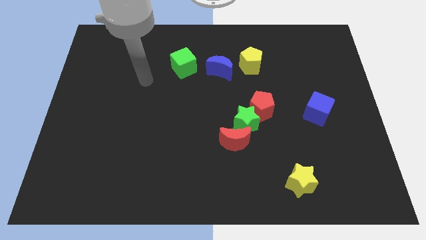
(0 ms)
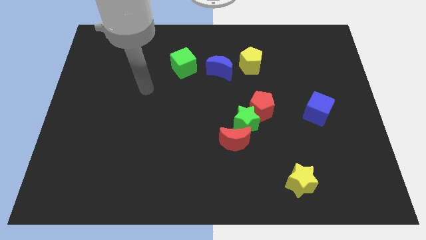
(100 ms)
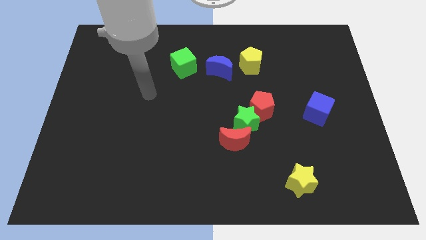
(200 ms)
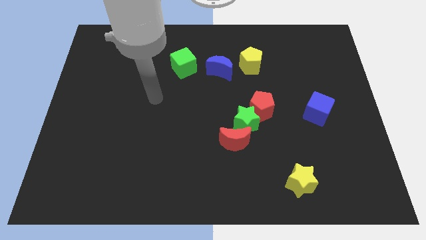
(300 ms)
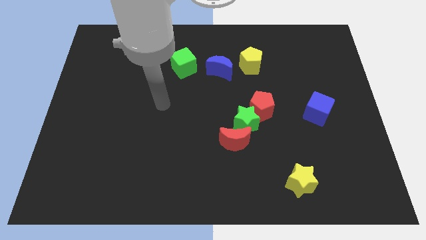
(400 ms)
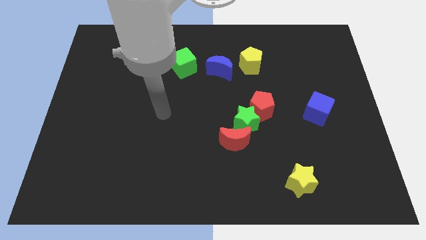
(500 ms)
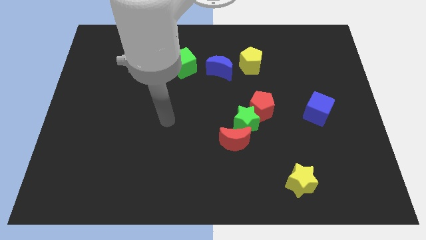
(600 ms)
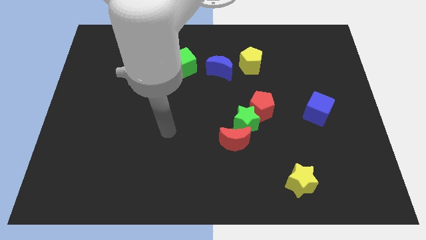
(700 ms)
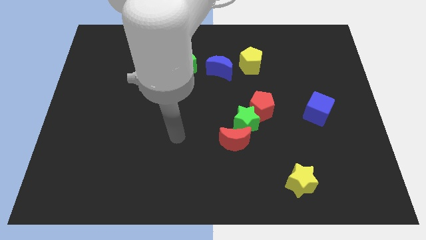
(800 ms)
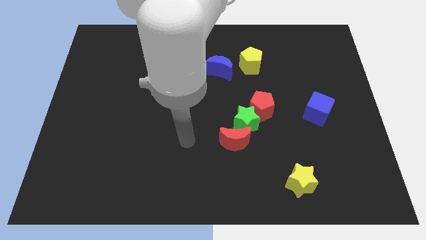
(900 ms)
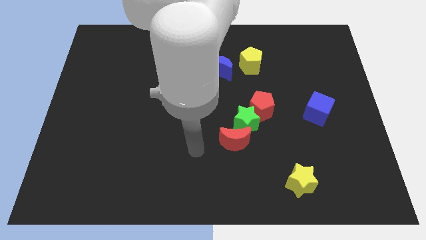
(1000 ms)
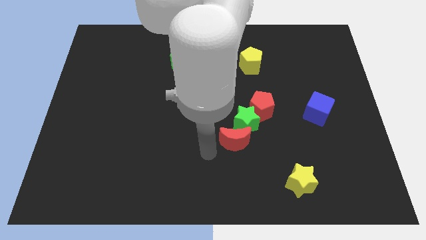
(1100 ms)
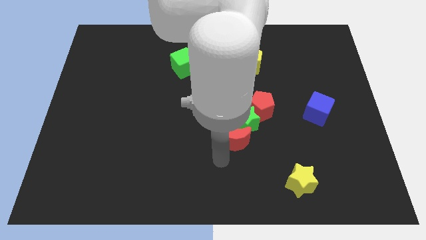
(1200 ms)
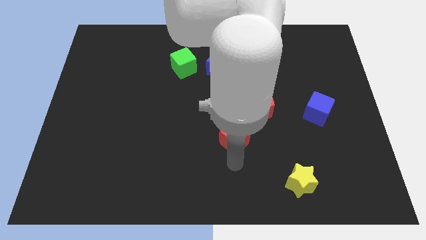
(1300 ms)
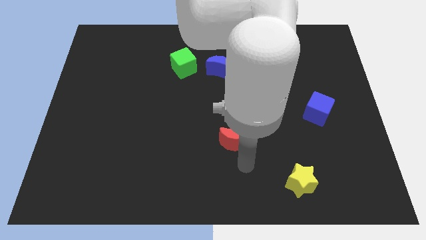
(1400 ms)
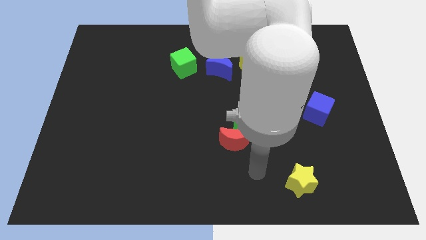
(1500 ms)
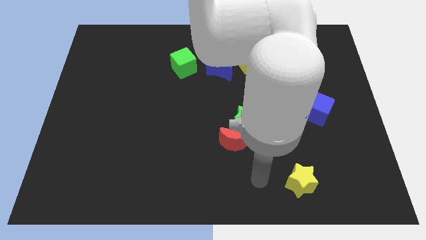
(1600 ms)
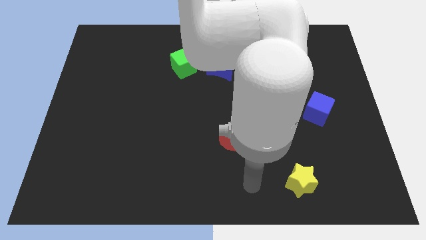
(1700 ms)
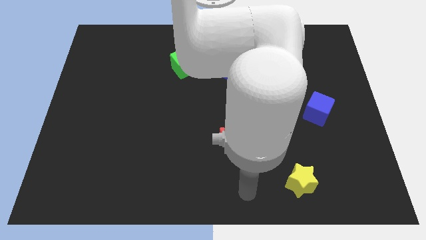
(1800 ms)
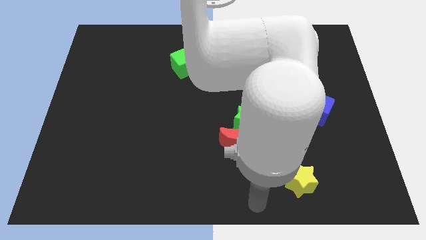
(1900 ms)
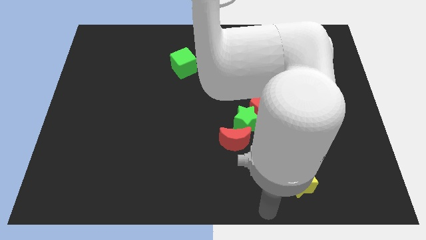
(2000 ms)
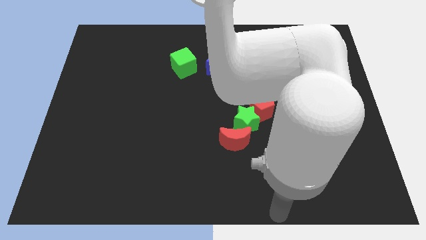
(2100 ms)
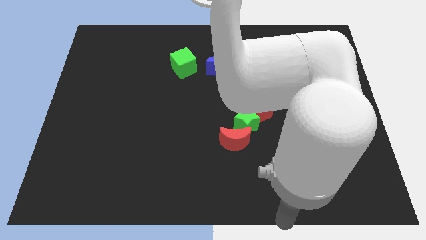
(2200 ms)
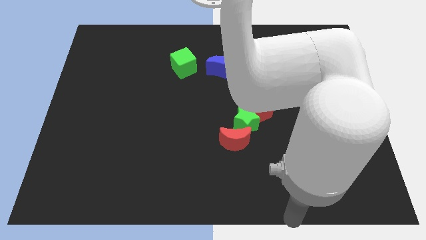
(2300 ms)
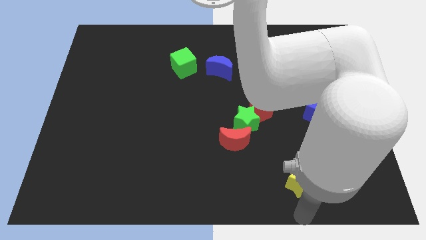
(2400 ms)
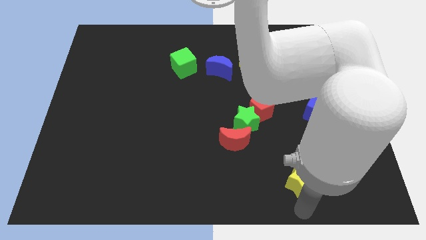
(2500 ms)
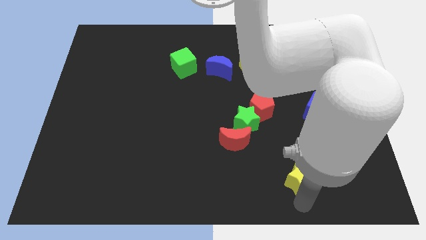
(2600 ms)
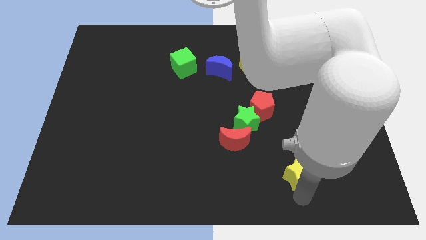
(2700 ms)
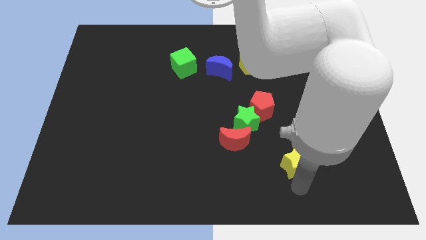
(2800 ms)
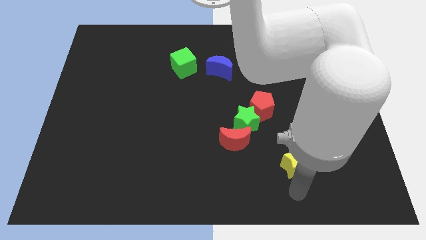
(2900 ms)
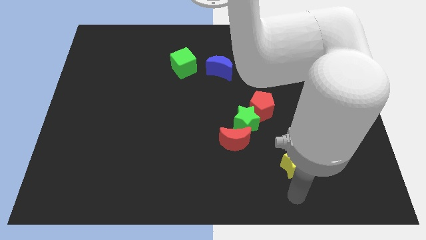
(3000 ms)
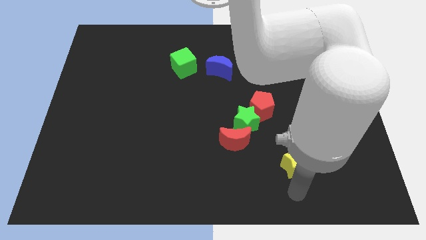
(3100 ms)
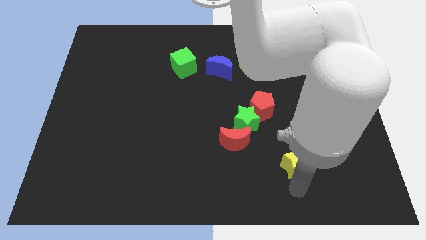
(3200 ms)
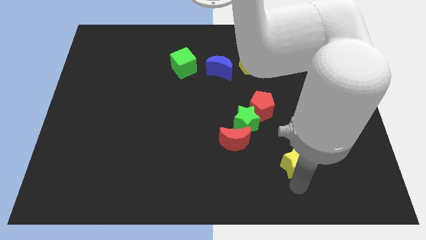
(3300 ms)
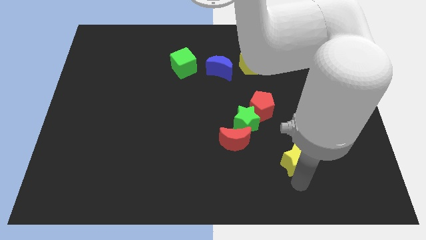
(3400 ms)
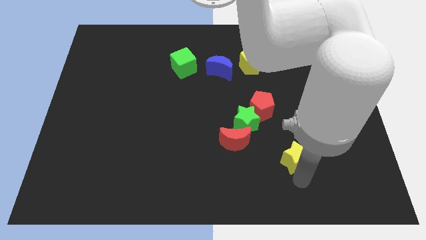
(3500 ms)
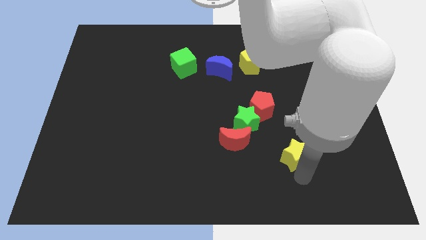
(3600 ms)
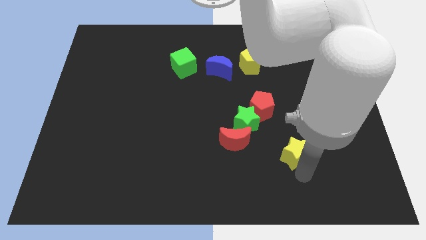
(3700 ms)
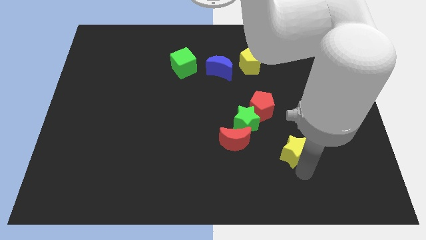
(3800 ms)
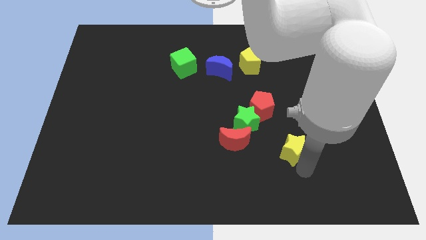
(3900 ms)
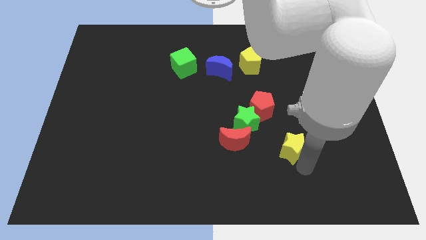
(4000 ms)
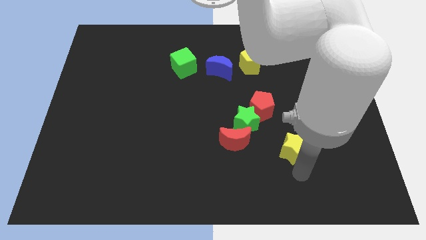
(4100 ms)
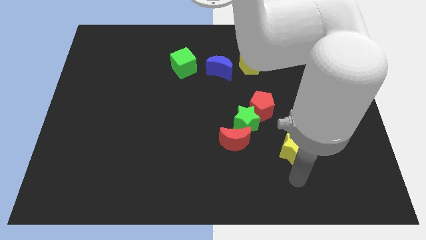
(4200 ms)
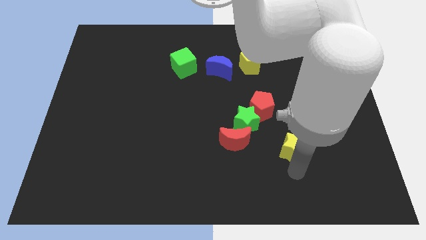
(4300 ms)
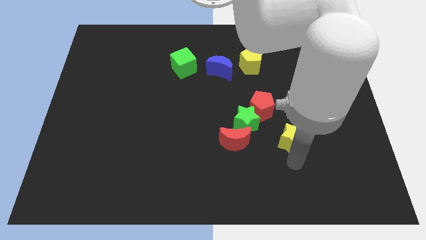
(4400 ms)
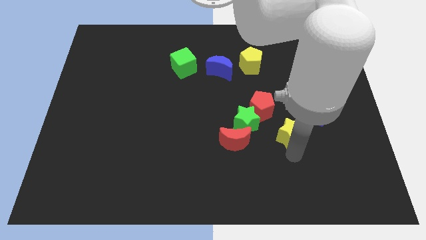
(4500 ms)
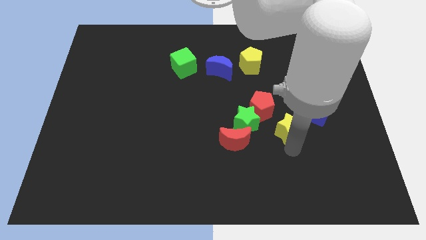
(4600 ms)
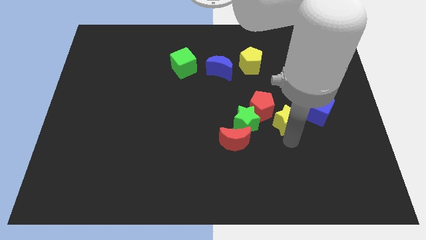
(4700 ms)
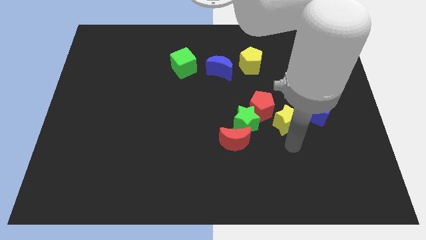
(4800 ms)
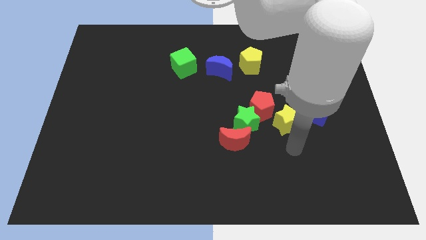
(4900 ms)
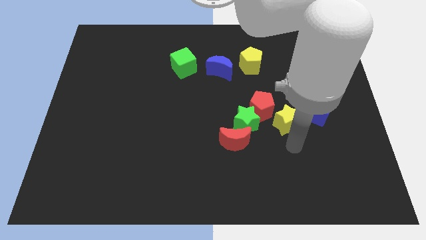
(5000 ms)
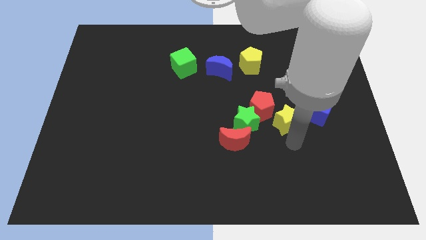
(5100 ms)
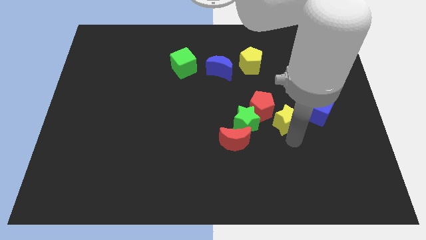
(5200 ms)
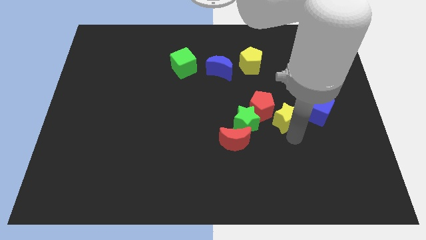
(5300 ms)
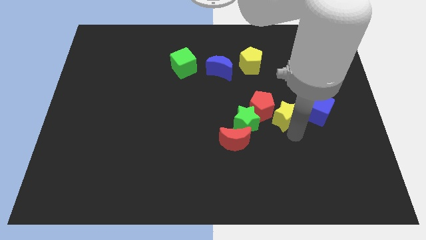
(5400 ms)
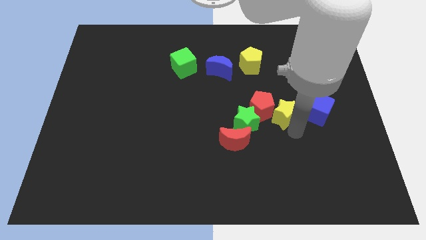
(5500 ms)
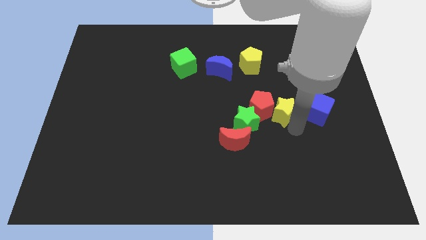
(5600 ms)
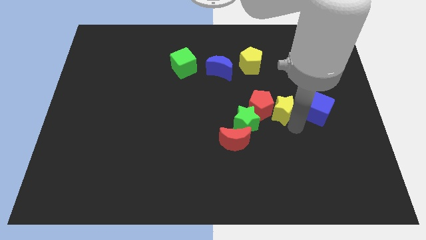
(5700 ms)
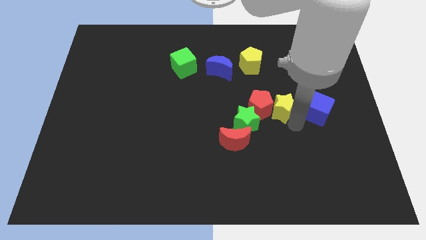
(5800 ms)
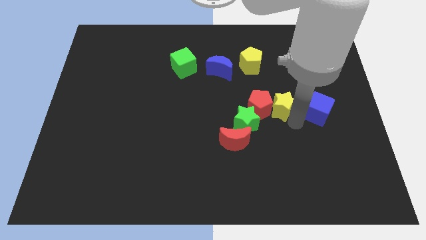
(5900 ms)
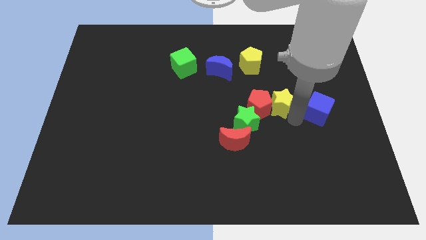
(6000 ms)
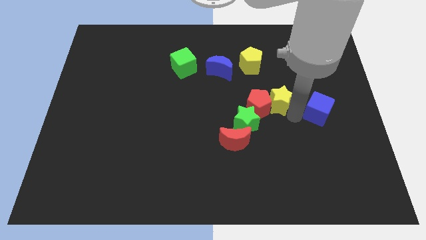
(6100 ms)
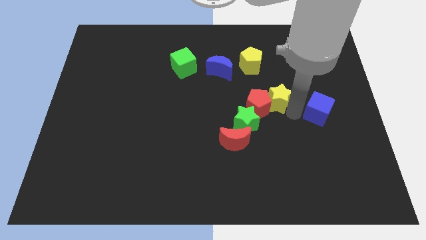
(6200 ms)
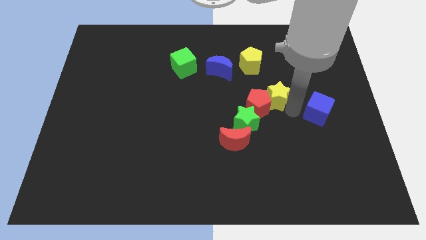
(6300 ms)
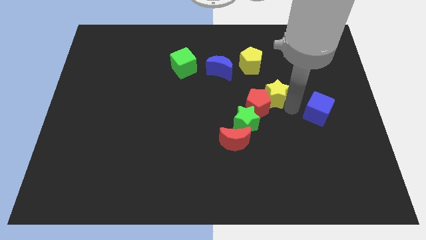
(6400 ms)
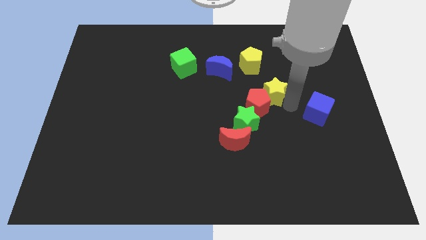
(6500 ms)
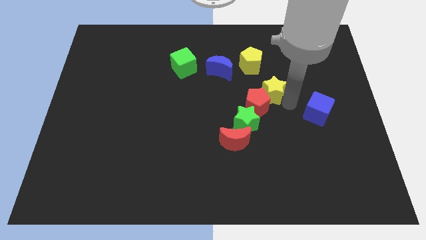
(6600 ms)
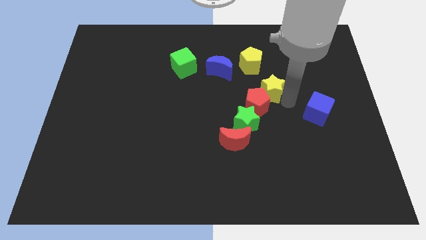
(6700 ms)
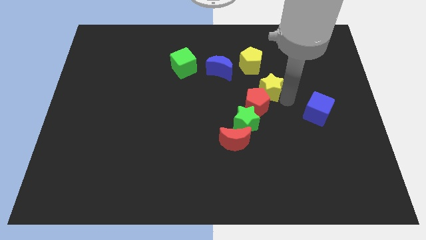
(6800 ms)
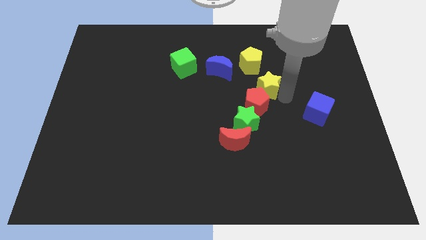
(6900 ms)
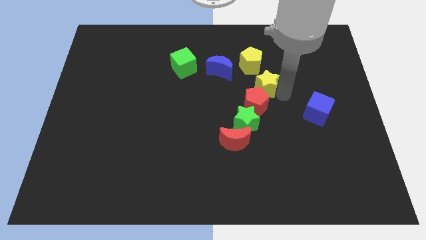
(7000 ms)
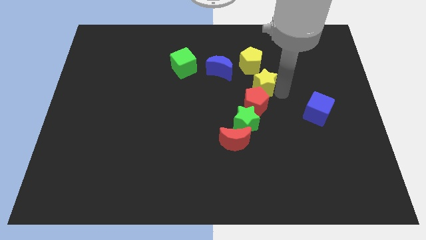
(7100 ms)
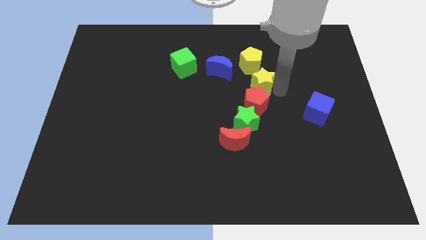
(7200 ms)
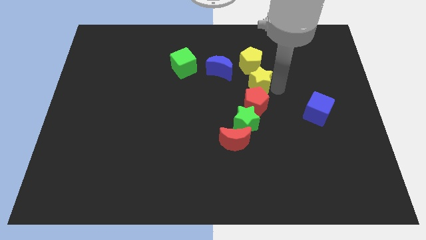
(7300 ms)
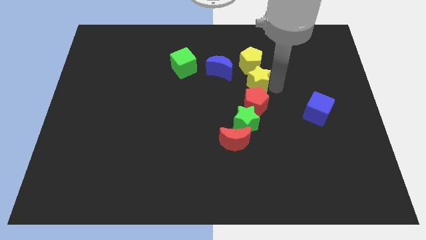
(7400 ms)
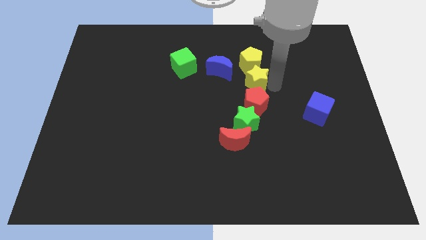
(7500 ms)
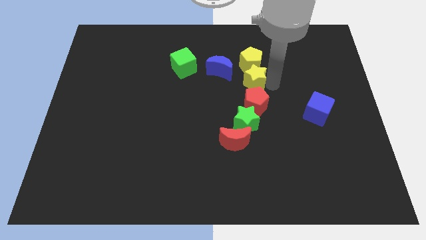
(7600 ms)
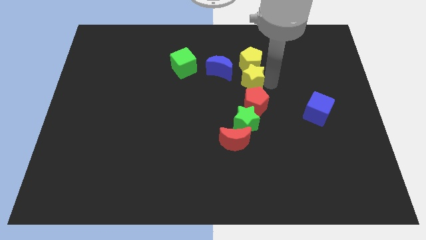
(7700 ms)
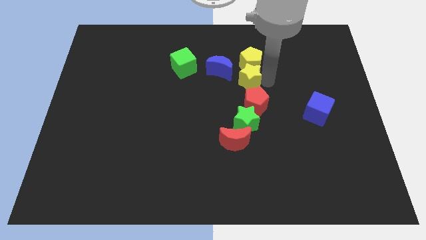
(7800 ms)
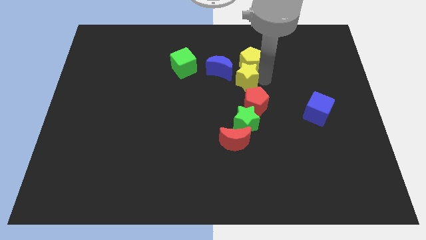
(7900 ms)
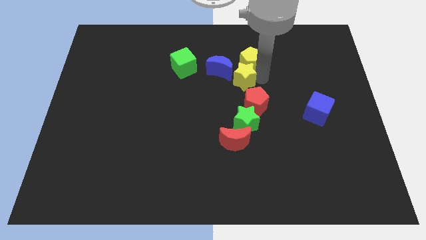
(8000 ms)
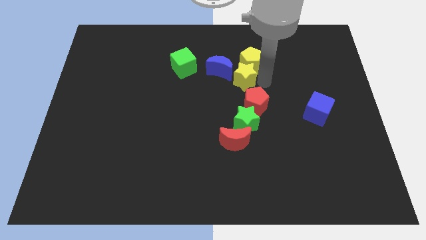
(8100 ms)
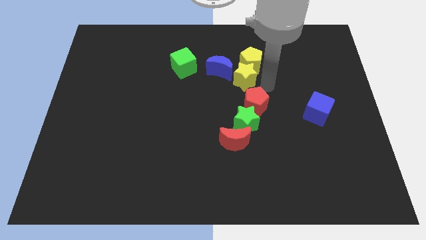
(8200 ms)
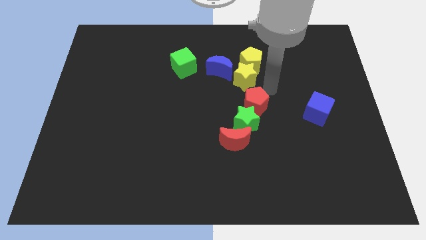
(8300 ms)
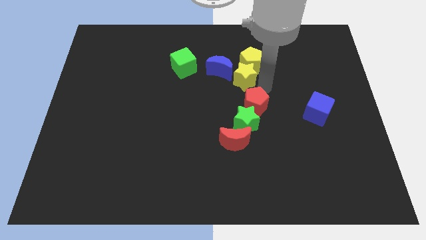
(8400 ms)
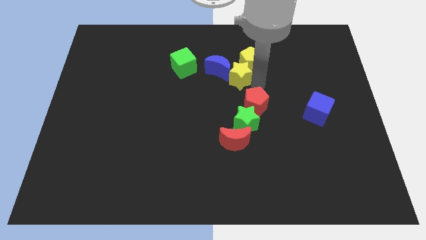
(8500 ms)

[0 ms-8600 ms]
slide the yellow star to the blue moon
